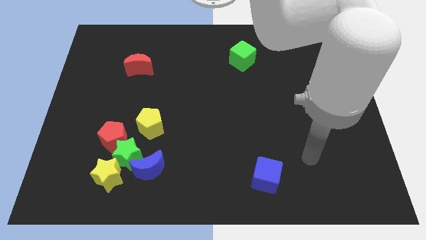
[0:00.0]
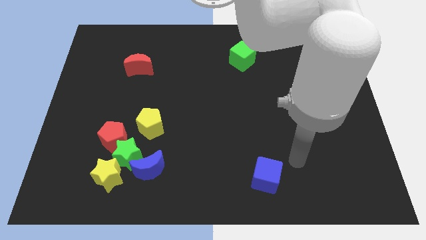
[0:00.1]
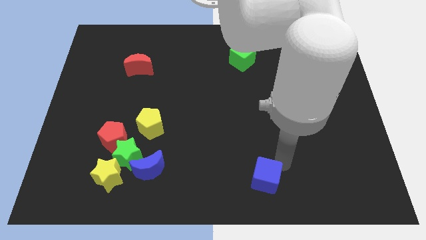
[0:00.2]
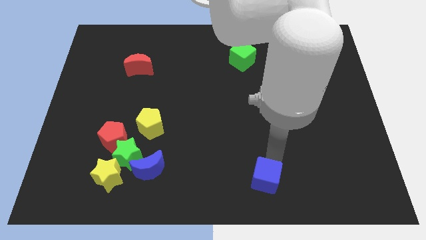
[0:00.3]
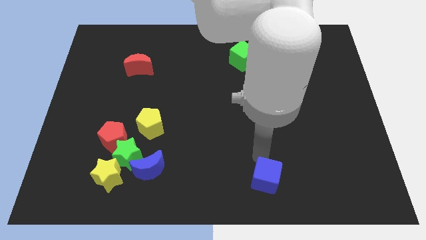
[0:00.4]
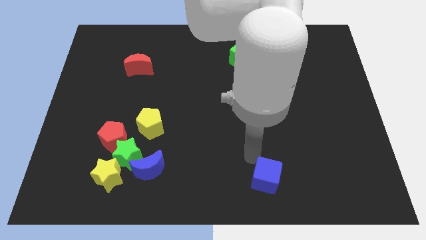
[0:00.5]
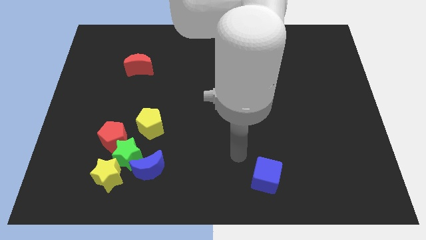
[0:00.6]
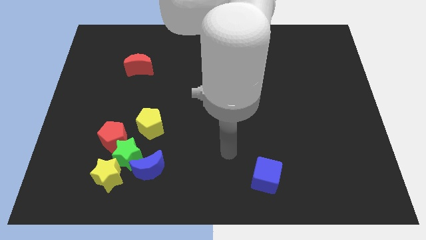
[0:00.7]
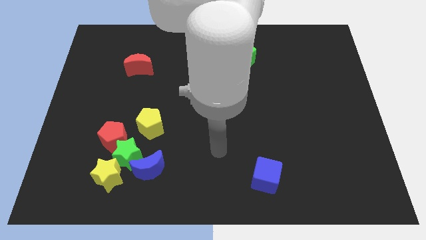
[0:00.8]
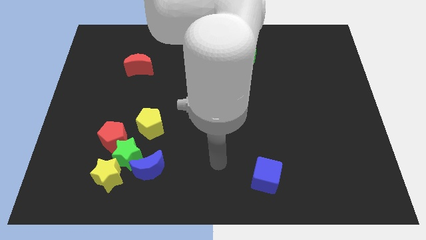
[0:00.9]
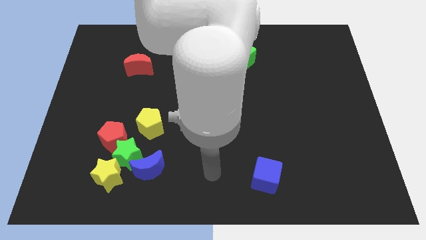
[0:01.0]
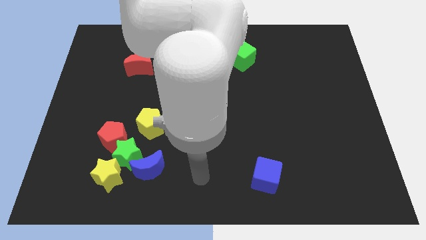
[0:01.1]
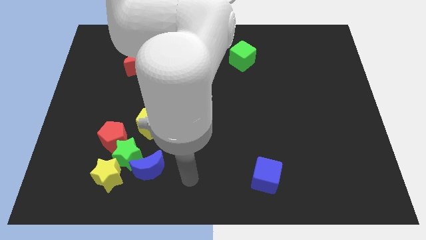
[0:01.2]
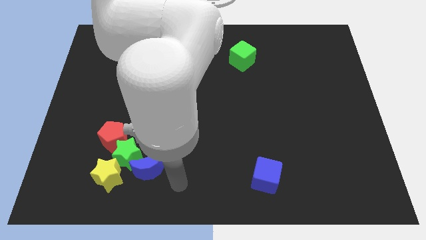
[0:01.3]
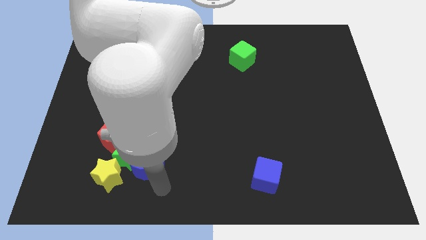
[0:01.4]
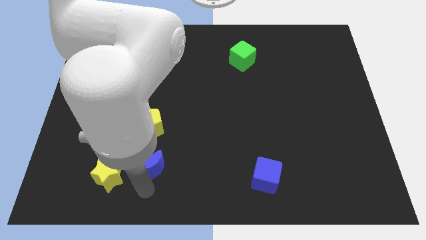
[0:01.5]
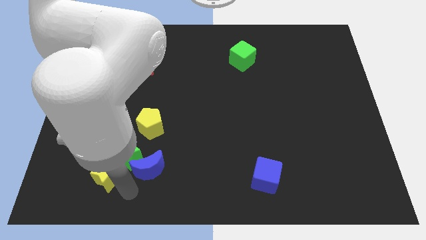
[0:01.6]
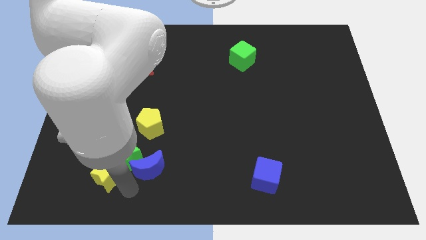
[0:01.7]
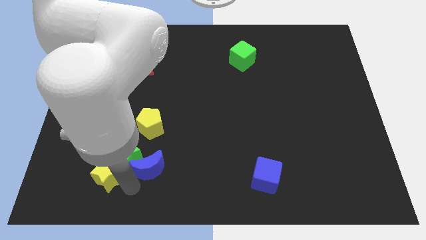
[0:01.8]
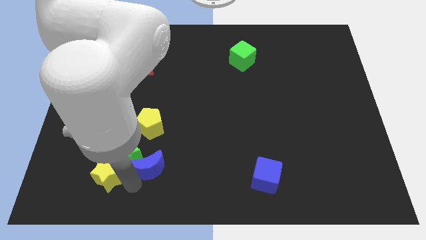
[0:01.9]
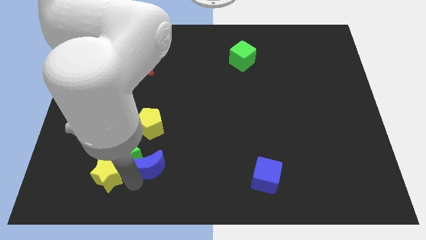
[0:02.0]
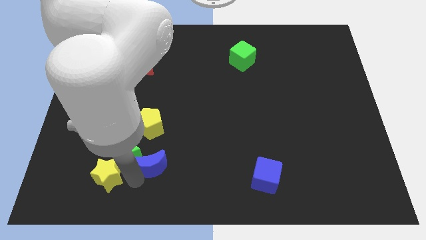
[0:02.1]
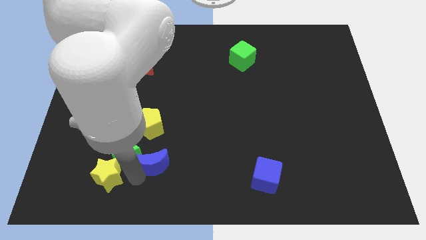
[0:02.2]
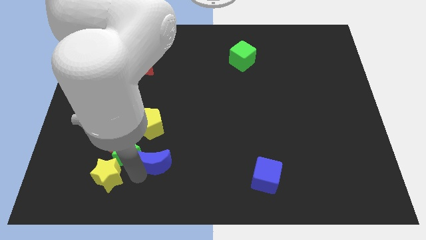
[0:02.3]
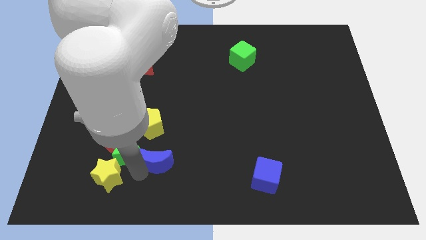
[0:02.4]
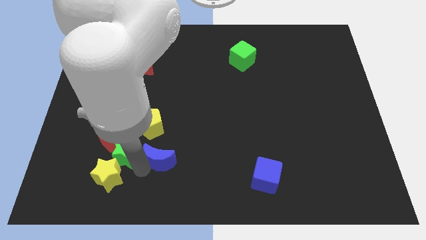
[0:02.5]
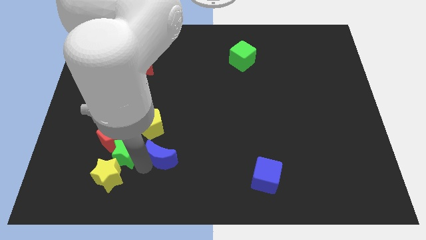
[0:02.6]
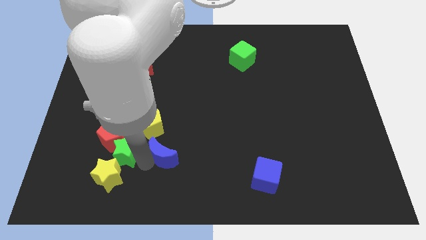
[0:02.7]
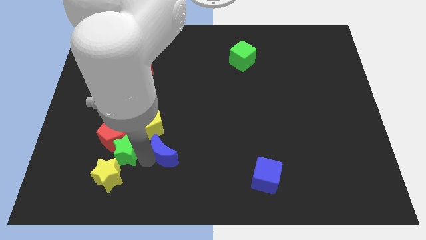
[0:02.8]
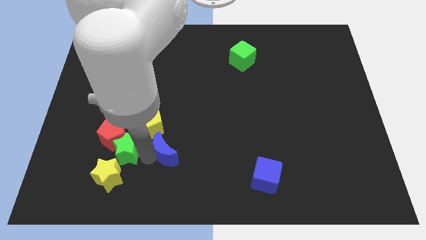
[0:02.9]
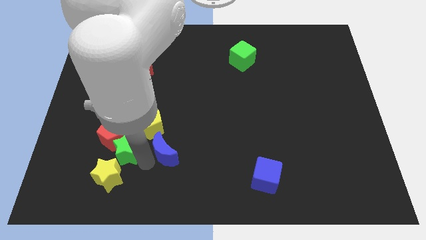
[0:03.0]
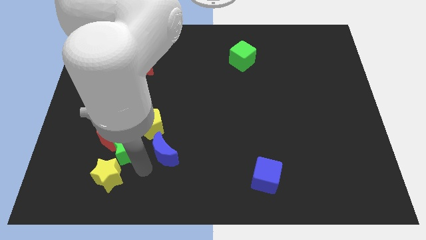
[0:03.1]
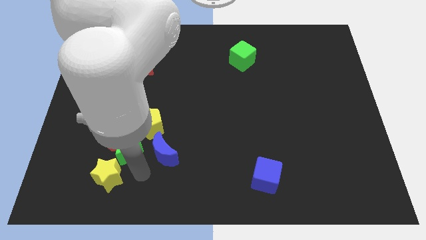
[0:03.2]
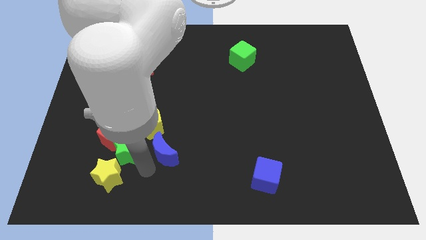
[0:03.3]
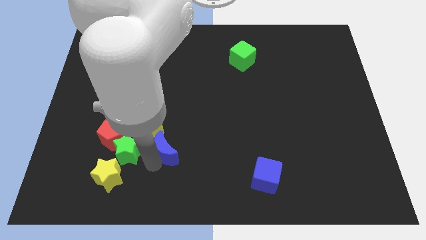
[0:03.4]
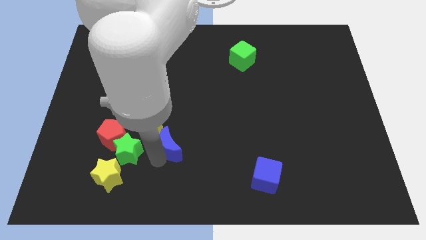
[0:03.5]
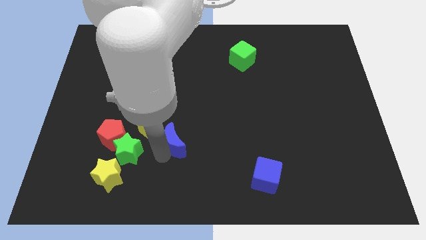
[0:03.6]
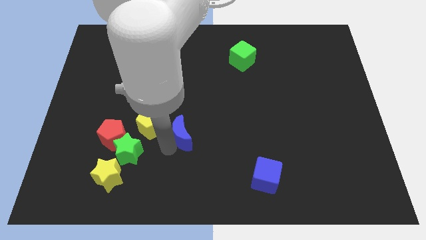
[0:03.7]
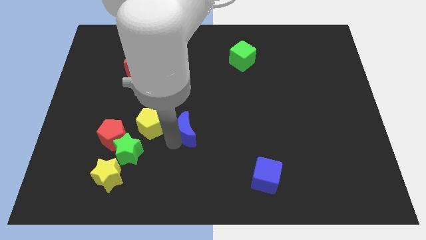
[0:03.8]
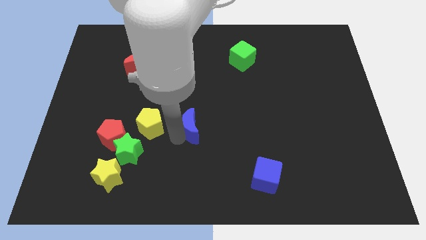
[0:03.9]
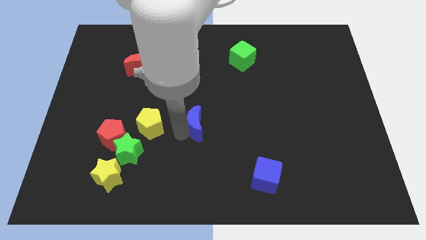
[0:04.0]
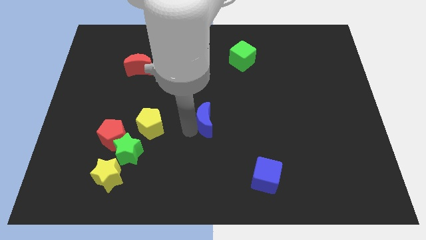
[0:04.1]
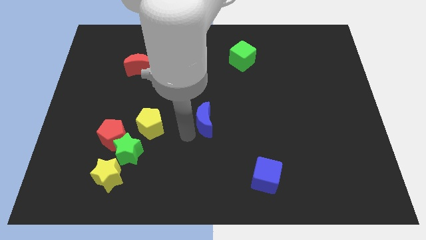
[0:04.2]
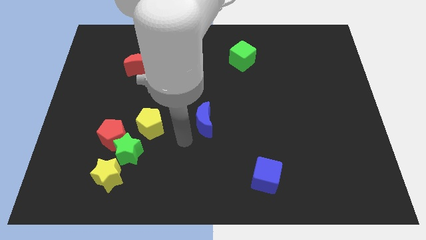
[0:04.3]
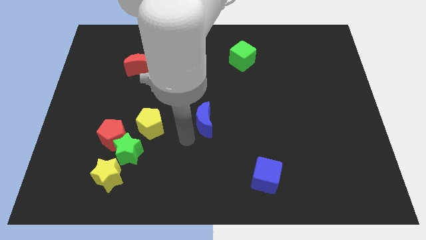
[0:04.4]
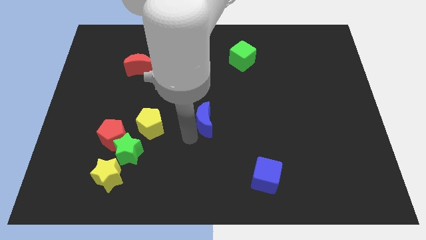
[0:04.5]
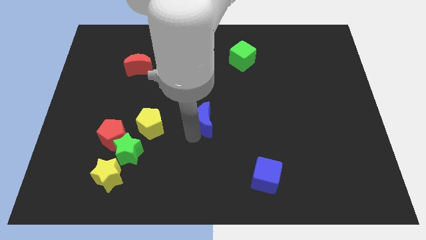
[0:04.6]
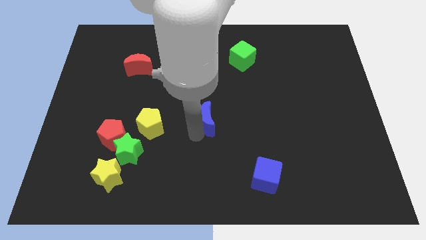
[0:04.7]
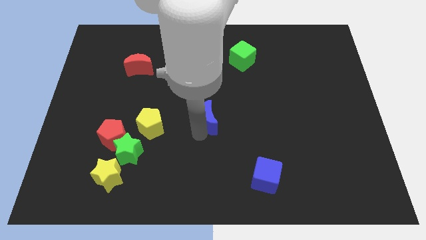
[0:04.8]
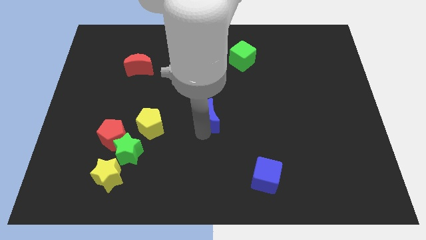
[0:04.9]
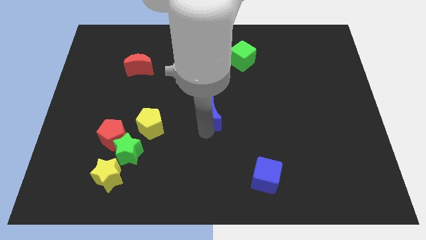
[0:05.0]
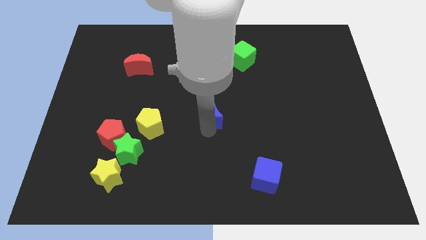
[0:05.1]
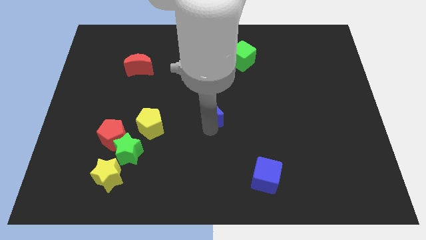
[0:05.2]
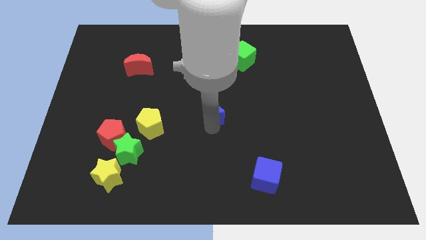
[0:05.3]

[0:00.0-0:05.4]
push the blue moon up and then to the right

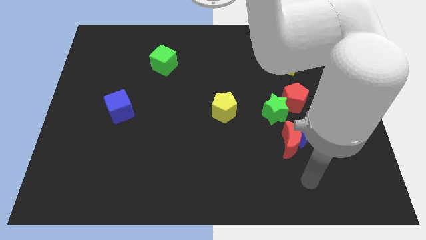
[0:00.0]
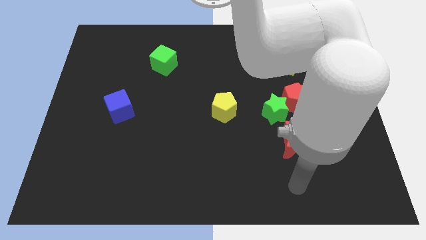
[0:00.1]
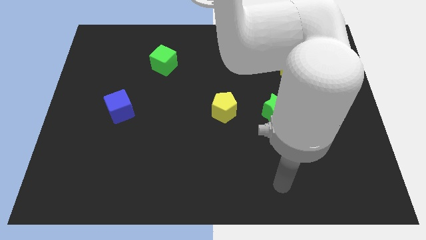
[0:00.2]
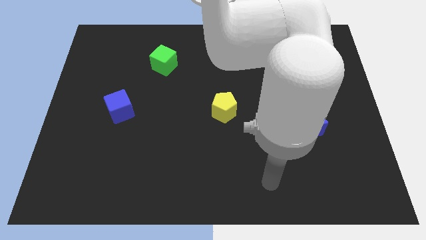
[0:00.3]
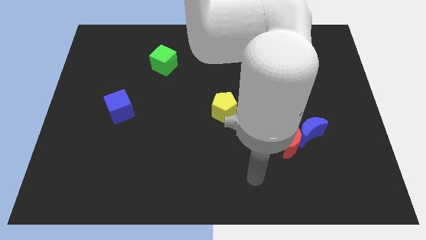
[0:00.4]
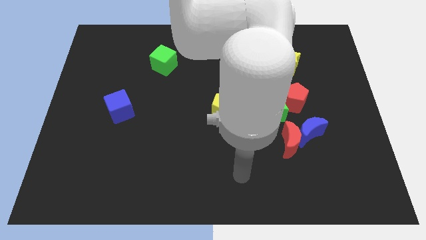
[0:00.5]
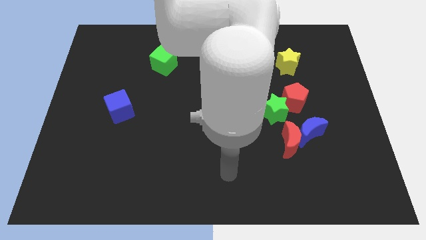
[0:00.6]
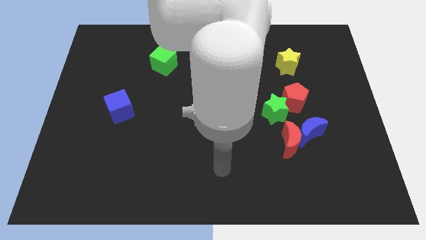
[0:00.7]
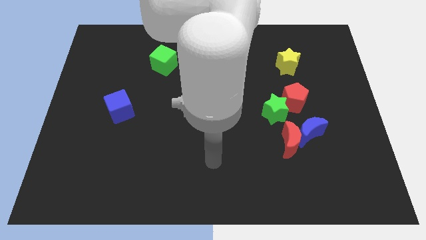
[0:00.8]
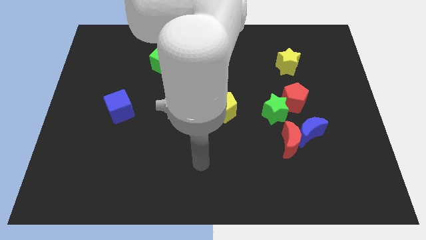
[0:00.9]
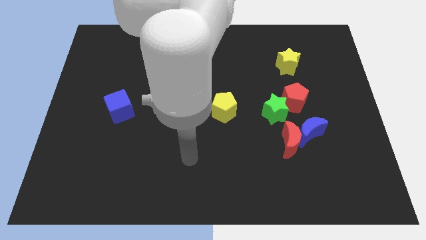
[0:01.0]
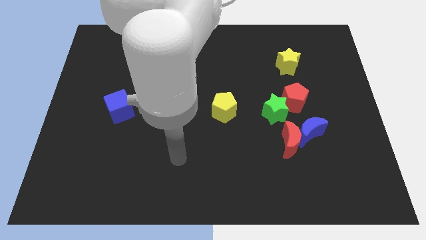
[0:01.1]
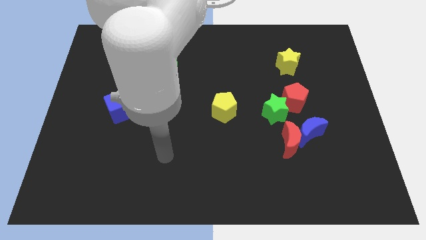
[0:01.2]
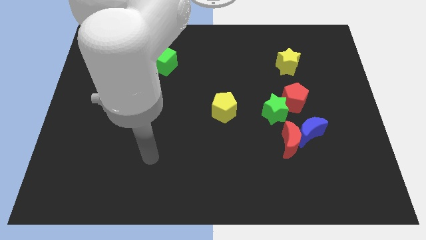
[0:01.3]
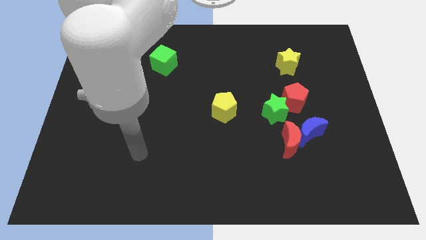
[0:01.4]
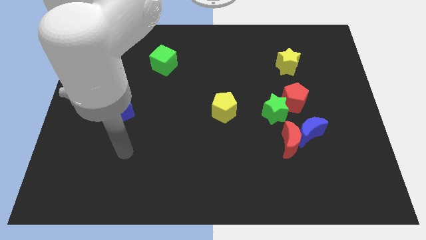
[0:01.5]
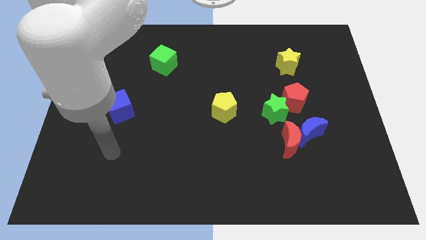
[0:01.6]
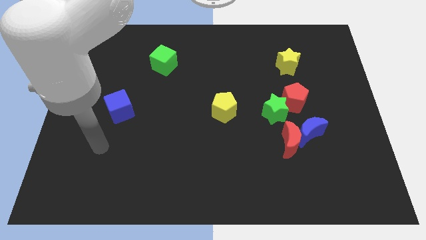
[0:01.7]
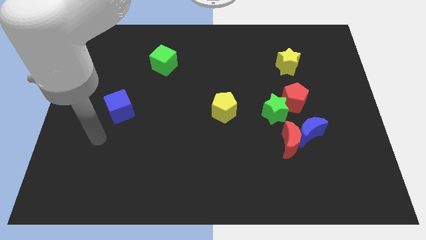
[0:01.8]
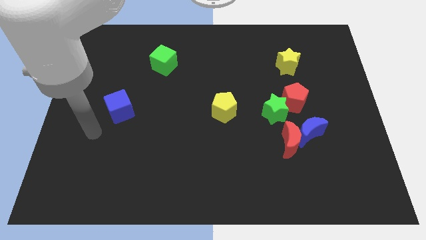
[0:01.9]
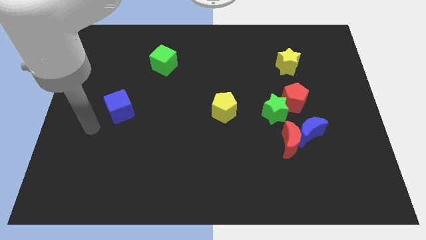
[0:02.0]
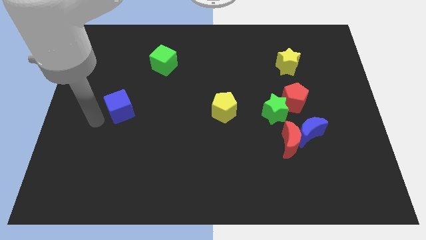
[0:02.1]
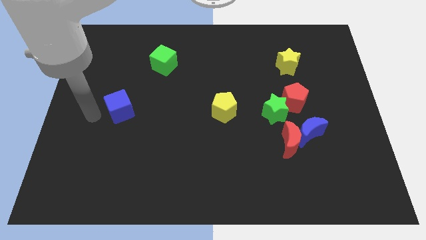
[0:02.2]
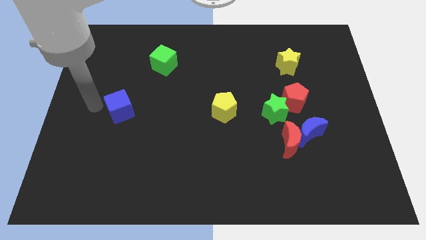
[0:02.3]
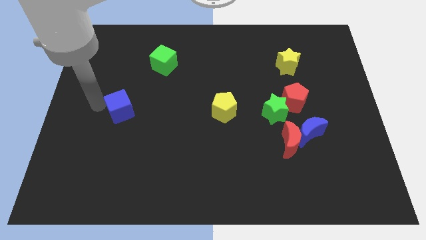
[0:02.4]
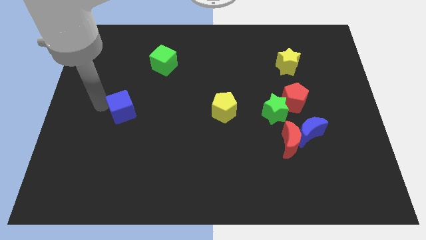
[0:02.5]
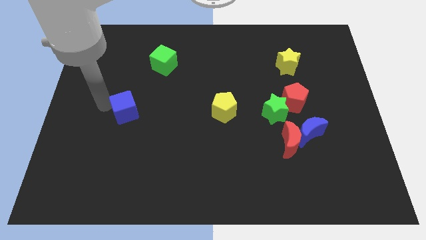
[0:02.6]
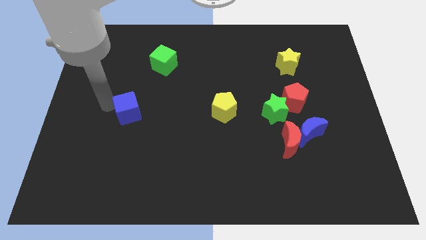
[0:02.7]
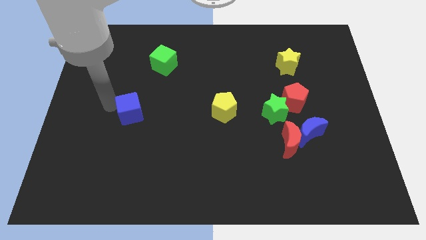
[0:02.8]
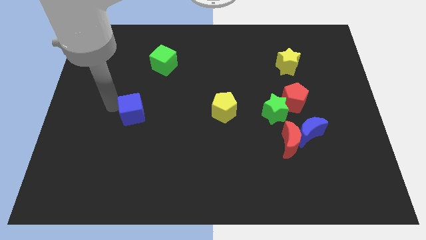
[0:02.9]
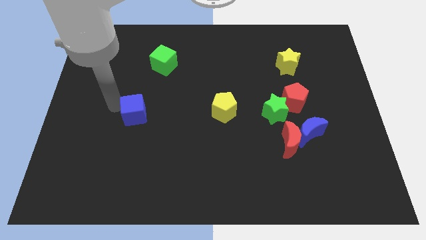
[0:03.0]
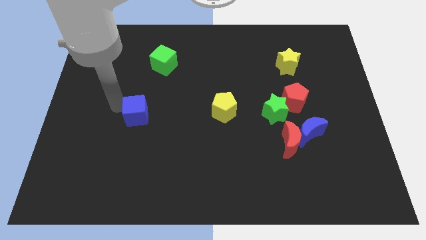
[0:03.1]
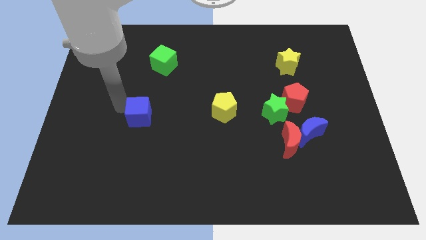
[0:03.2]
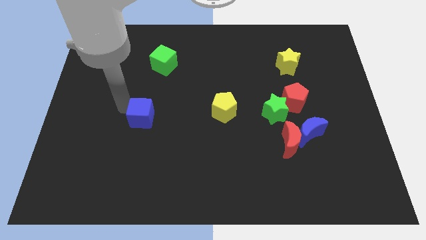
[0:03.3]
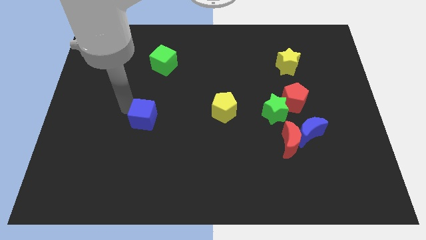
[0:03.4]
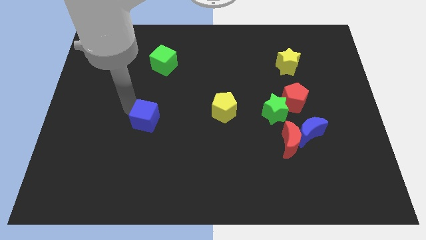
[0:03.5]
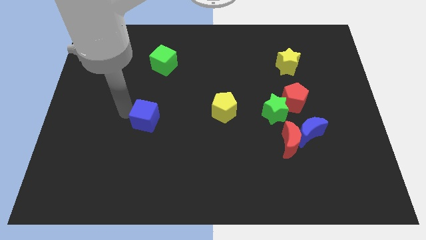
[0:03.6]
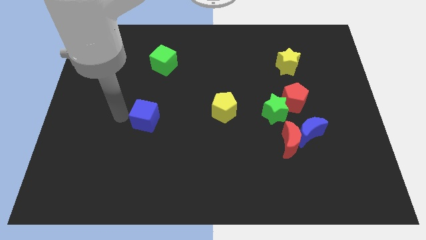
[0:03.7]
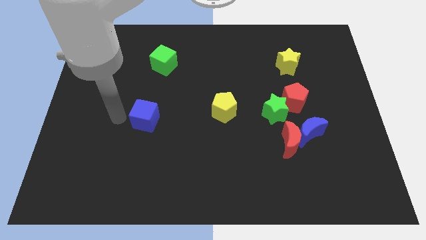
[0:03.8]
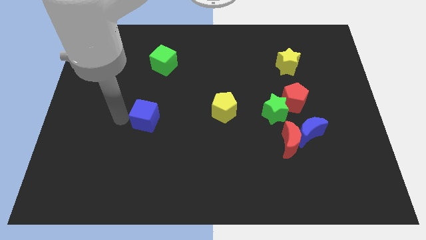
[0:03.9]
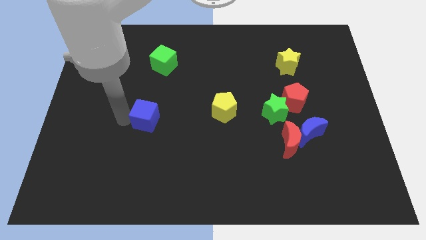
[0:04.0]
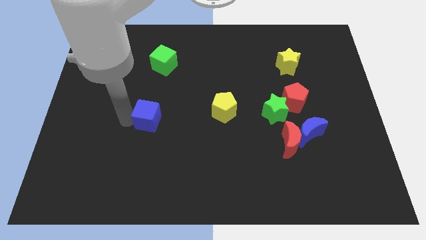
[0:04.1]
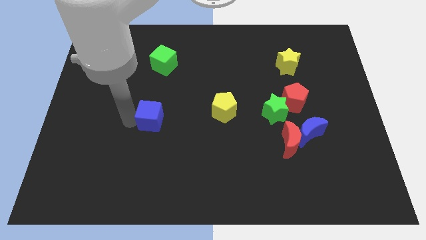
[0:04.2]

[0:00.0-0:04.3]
move the blue cube right a little
